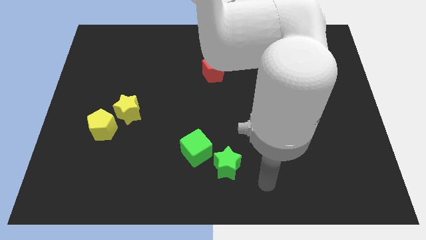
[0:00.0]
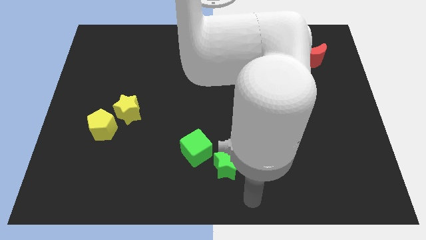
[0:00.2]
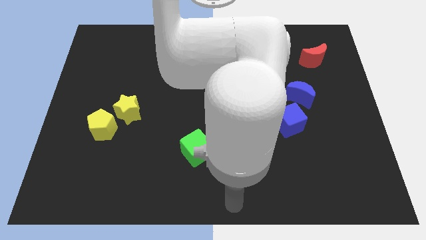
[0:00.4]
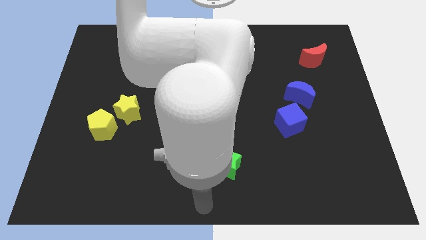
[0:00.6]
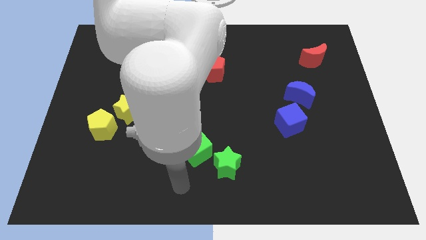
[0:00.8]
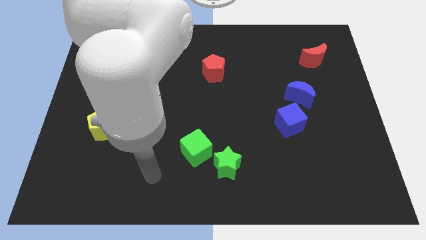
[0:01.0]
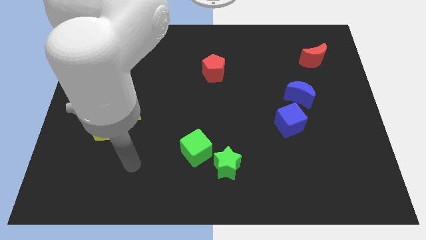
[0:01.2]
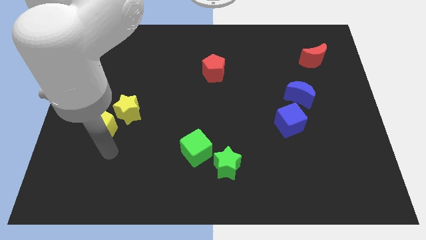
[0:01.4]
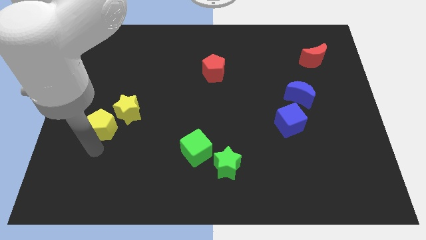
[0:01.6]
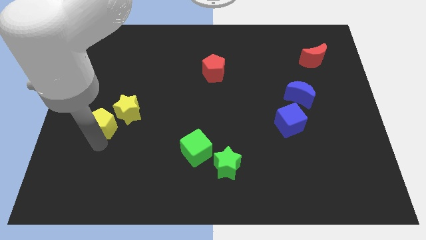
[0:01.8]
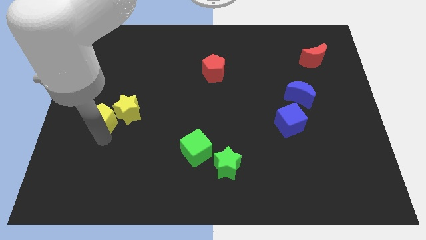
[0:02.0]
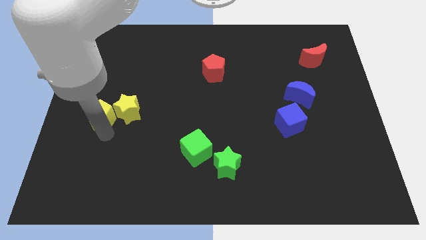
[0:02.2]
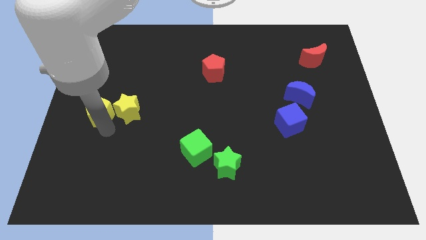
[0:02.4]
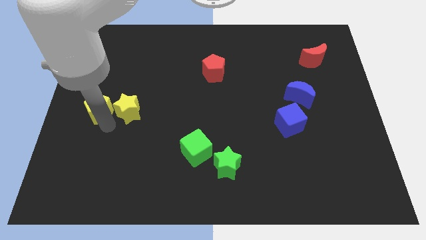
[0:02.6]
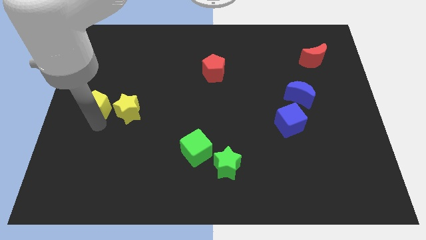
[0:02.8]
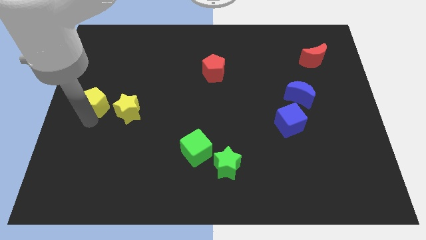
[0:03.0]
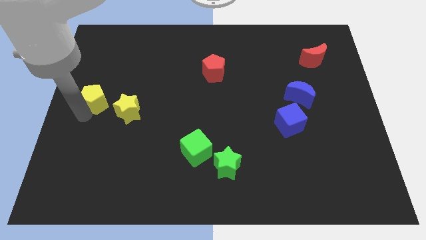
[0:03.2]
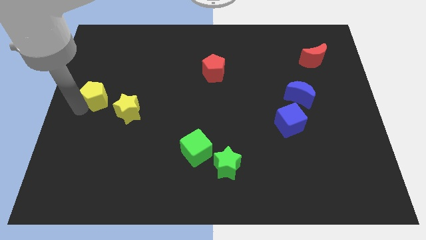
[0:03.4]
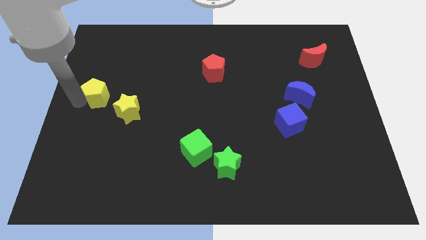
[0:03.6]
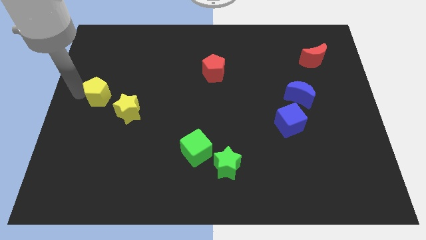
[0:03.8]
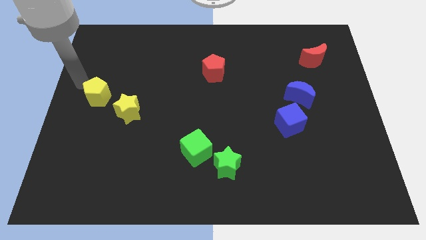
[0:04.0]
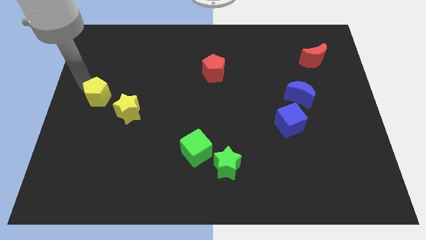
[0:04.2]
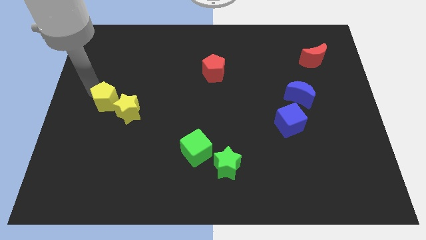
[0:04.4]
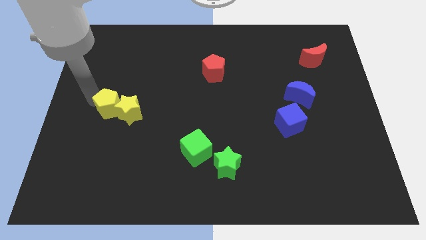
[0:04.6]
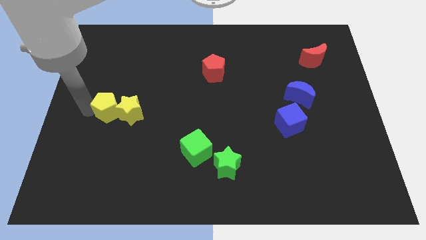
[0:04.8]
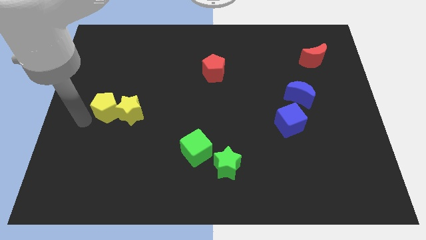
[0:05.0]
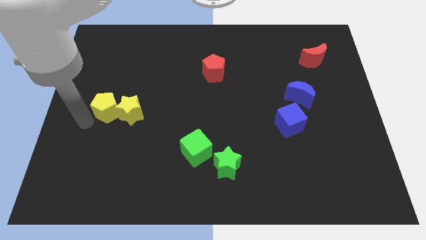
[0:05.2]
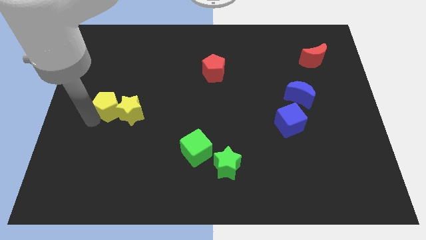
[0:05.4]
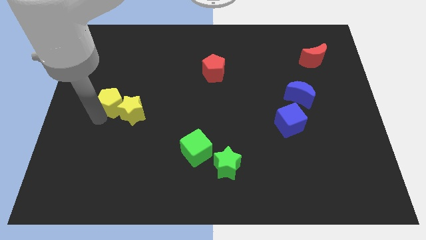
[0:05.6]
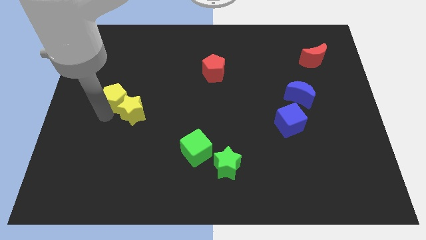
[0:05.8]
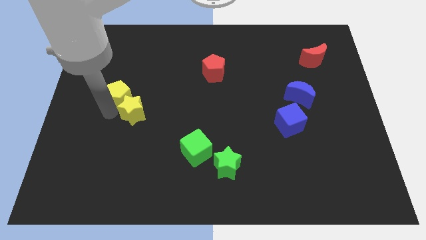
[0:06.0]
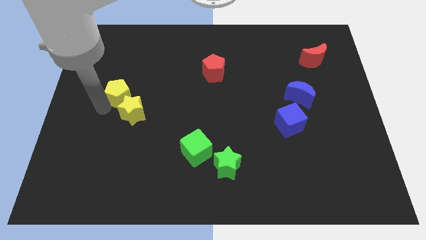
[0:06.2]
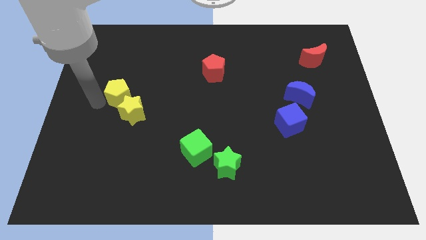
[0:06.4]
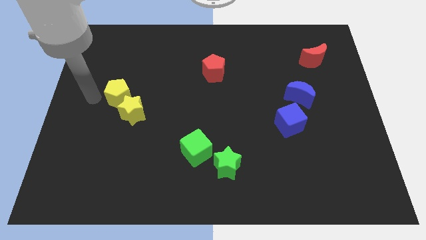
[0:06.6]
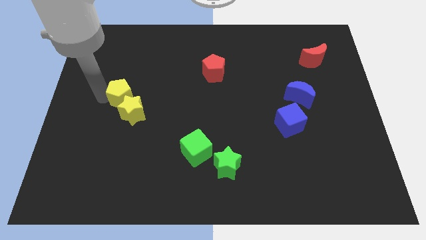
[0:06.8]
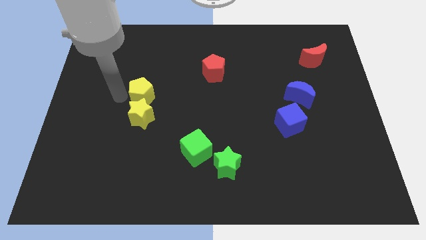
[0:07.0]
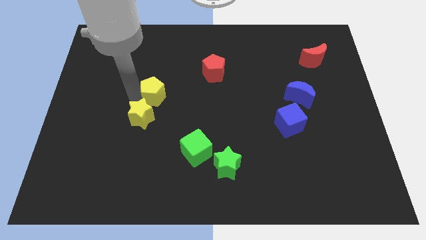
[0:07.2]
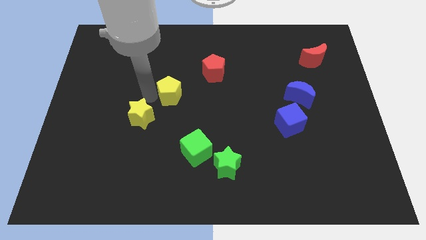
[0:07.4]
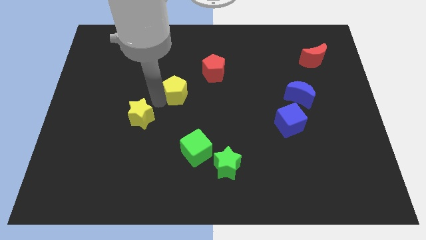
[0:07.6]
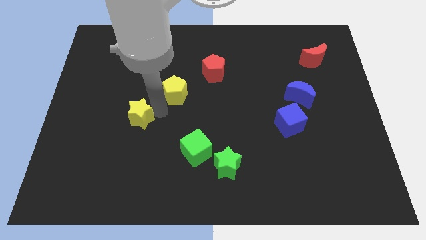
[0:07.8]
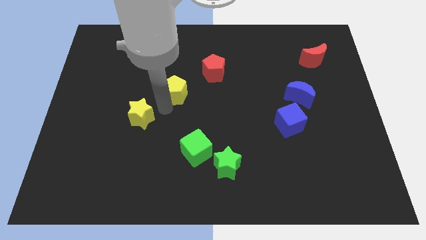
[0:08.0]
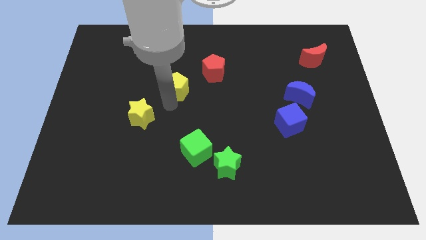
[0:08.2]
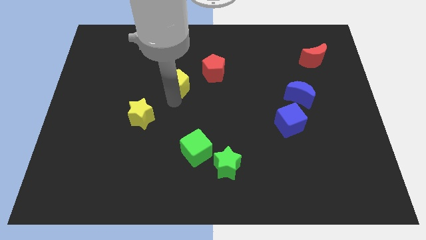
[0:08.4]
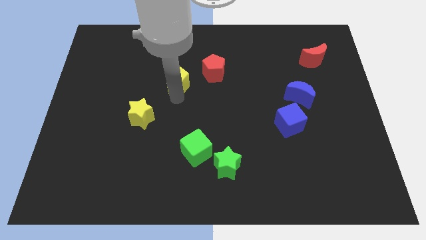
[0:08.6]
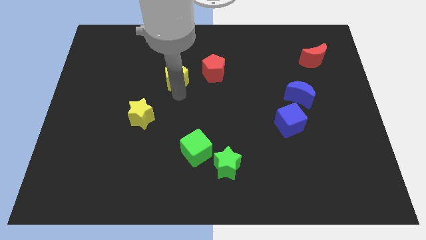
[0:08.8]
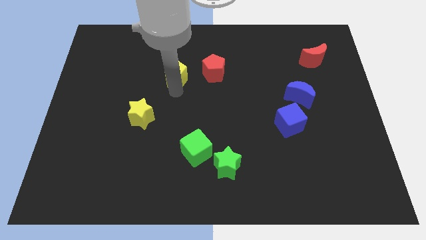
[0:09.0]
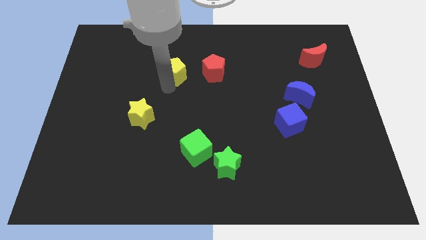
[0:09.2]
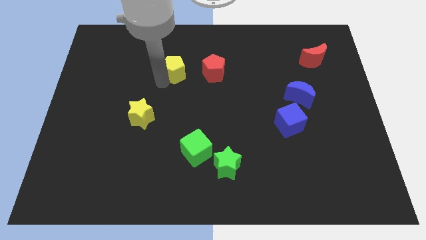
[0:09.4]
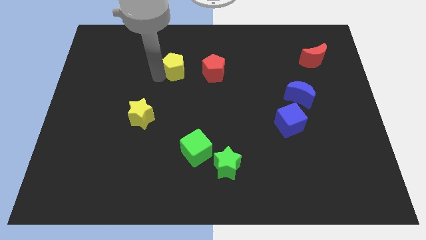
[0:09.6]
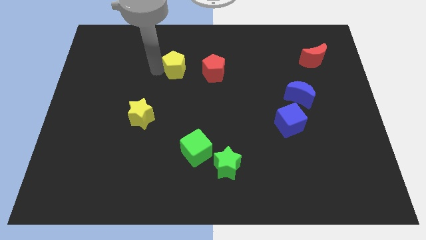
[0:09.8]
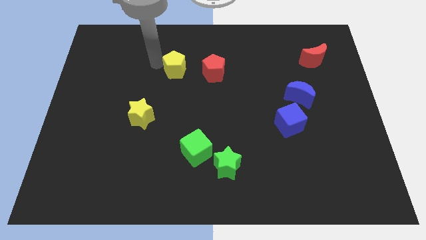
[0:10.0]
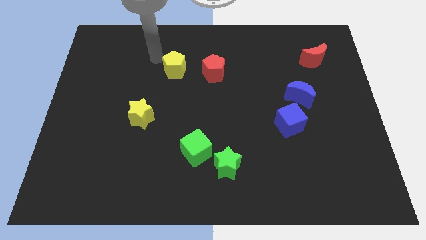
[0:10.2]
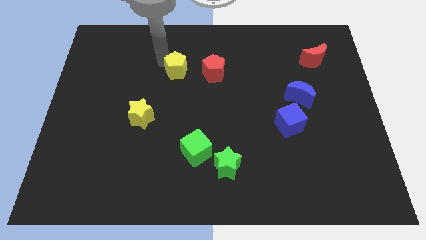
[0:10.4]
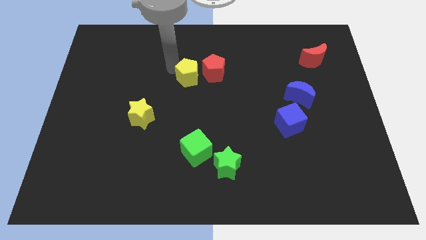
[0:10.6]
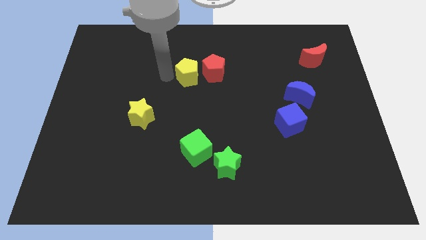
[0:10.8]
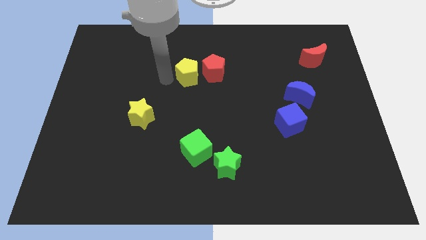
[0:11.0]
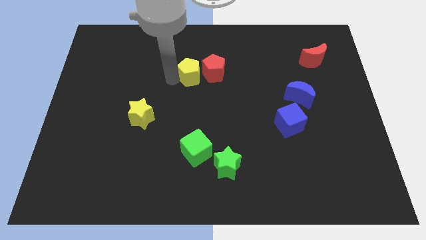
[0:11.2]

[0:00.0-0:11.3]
move the yellow pentagon next to the red pentagon
